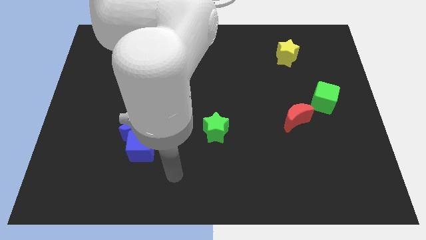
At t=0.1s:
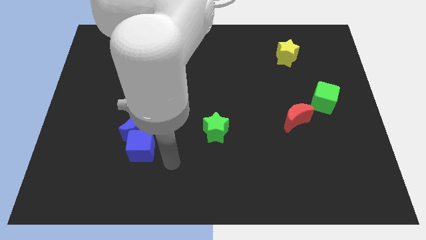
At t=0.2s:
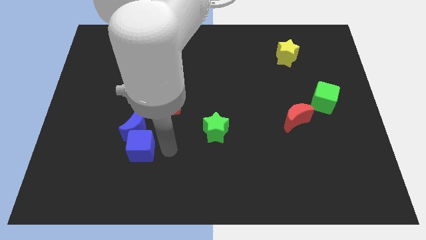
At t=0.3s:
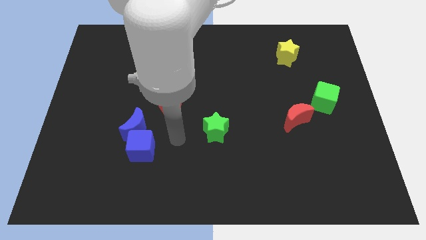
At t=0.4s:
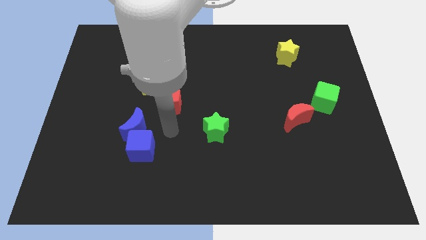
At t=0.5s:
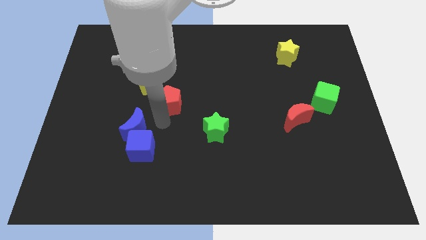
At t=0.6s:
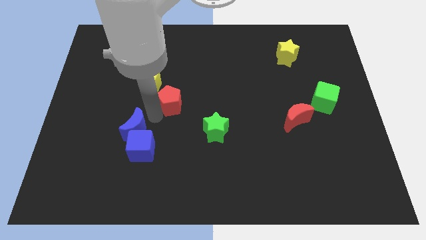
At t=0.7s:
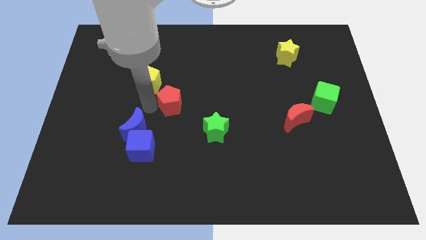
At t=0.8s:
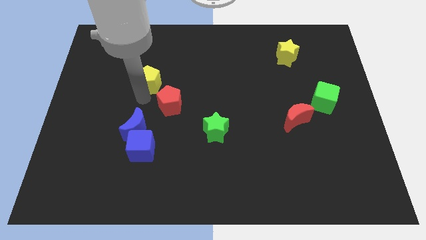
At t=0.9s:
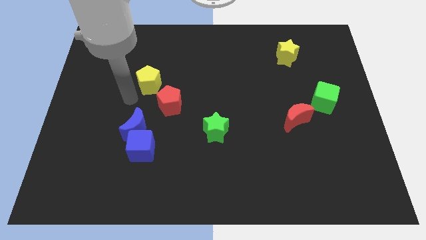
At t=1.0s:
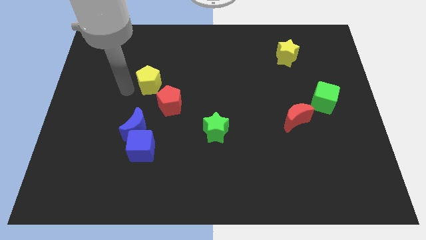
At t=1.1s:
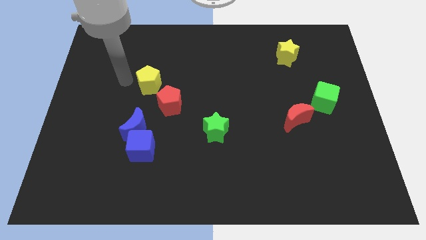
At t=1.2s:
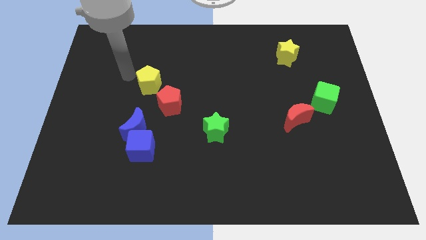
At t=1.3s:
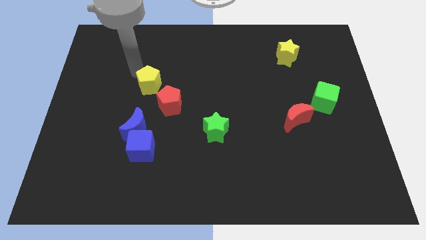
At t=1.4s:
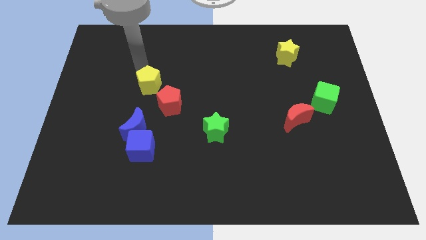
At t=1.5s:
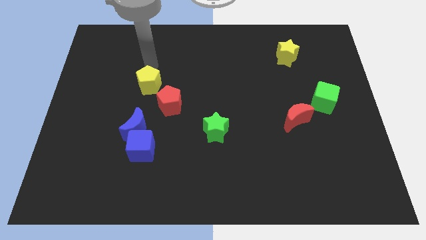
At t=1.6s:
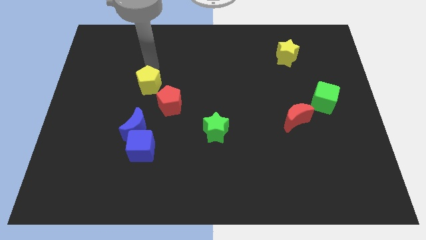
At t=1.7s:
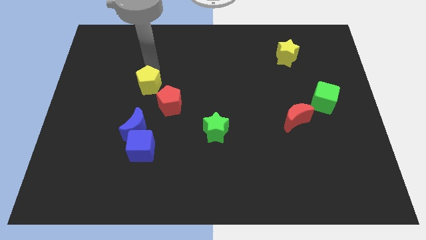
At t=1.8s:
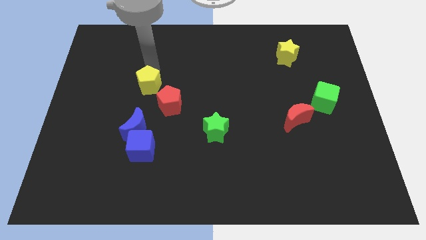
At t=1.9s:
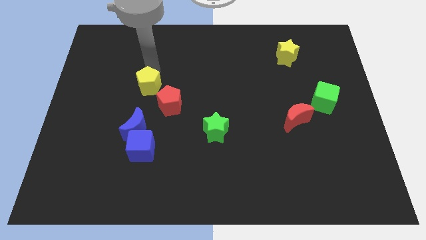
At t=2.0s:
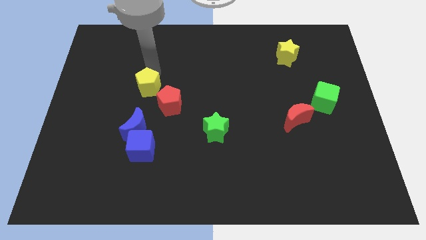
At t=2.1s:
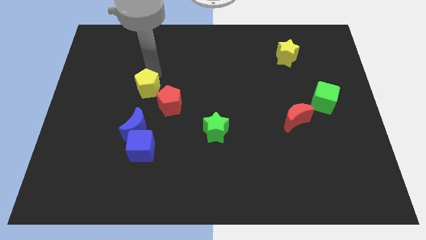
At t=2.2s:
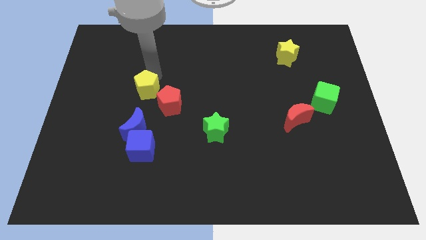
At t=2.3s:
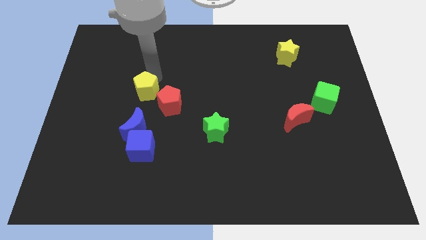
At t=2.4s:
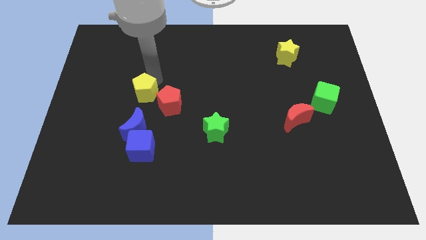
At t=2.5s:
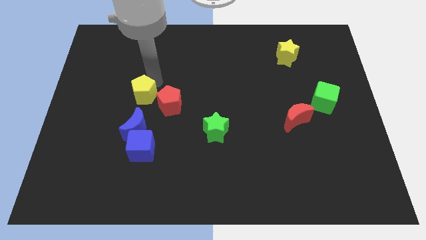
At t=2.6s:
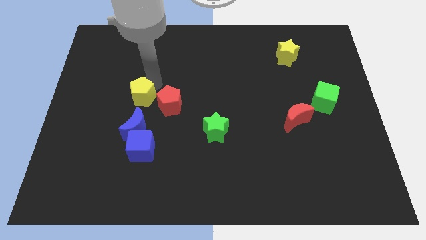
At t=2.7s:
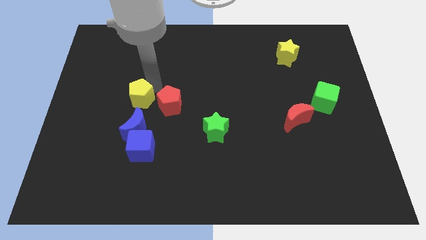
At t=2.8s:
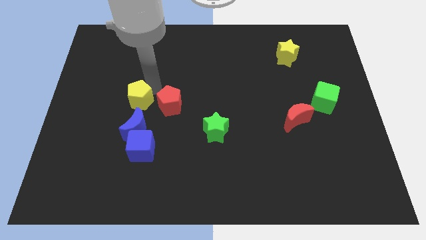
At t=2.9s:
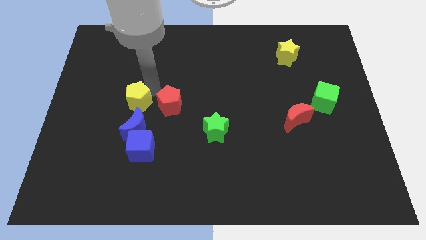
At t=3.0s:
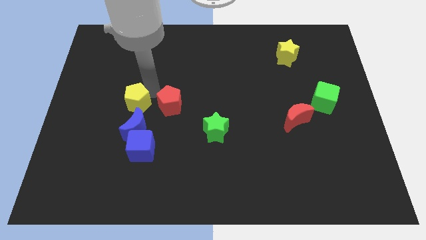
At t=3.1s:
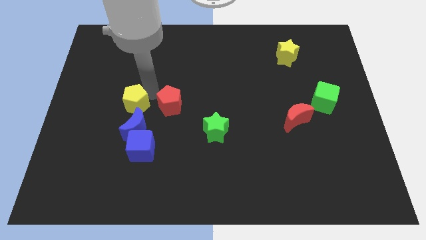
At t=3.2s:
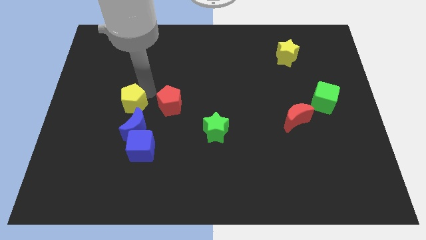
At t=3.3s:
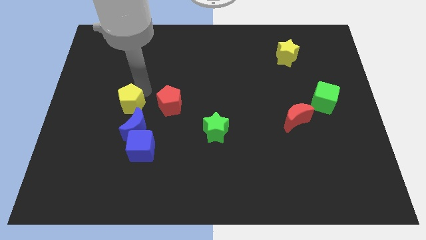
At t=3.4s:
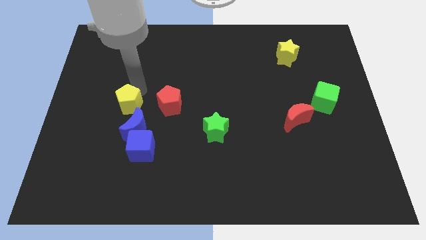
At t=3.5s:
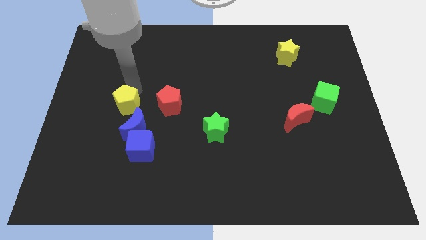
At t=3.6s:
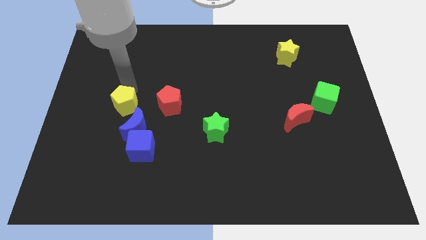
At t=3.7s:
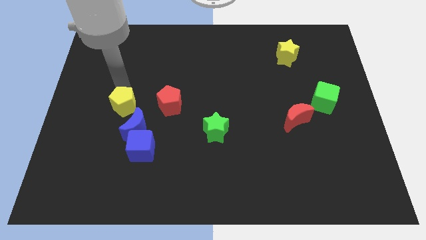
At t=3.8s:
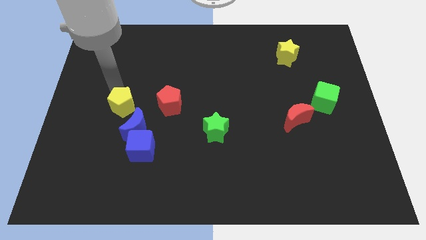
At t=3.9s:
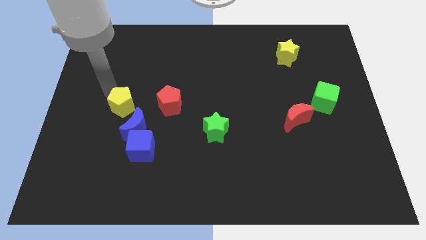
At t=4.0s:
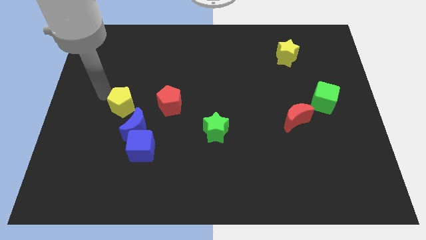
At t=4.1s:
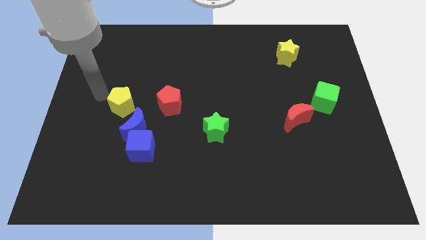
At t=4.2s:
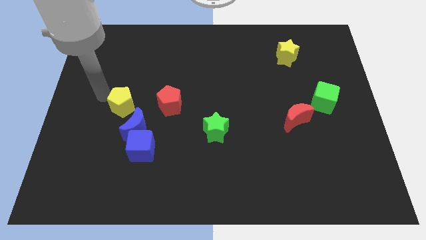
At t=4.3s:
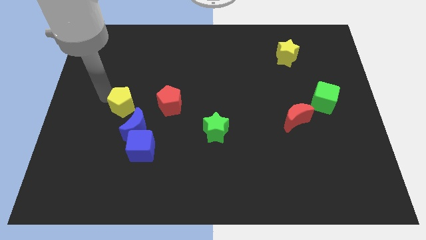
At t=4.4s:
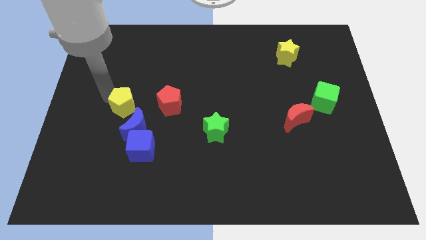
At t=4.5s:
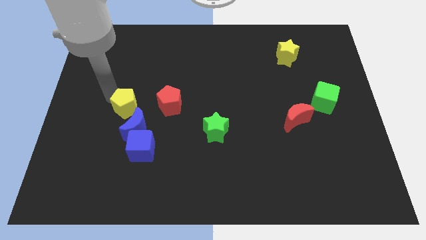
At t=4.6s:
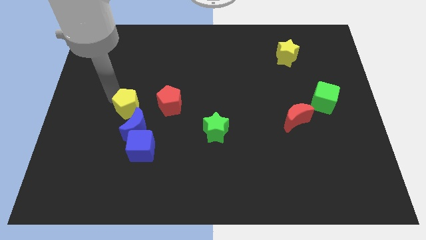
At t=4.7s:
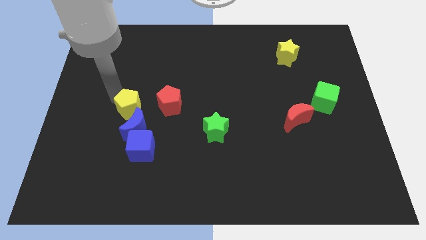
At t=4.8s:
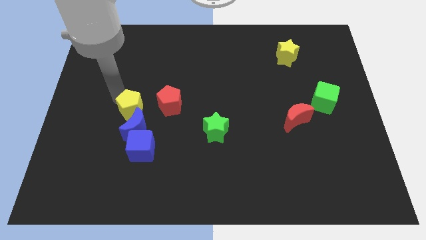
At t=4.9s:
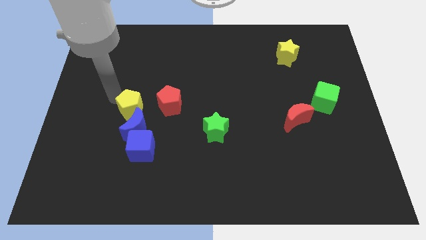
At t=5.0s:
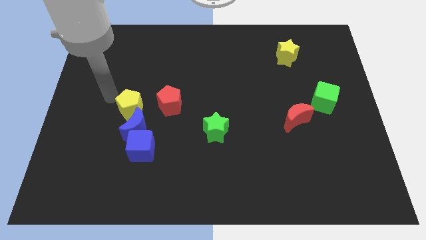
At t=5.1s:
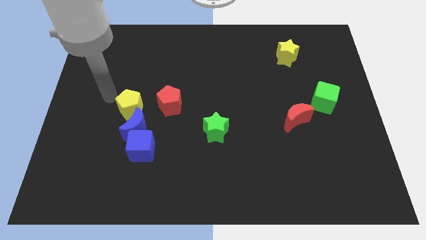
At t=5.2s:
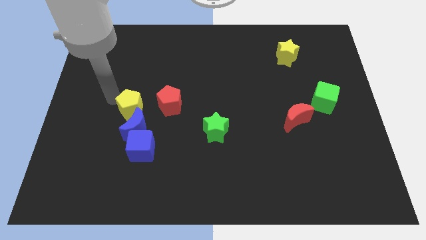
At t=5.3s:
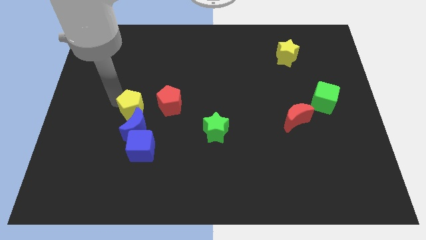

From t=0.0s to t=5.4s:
push the yellow pentagon close to the blue moon

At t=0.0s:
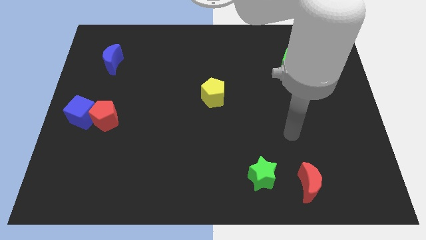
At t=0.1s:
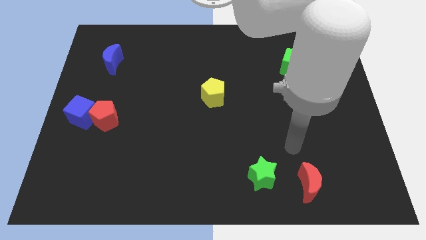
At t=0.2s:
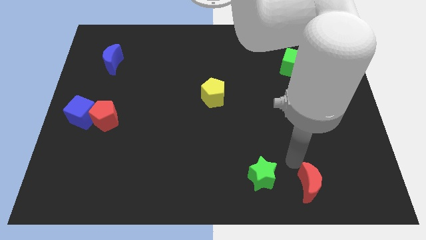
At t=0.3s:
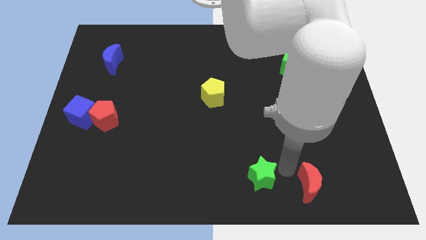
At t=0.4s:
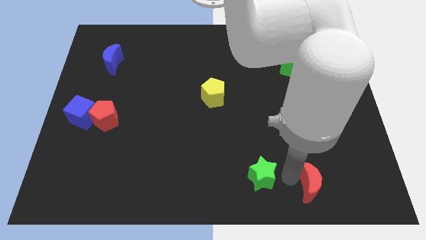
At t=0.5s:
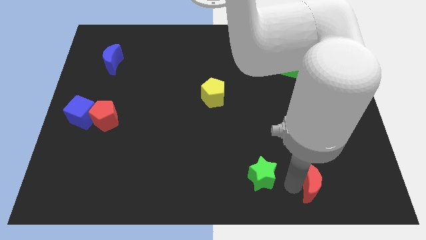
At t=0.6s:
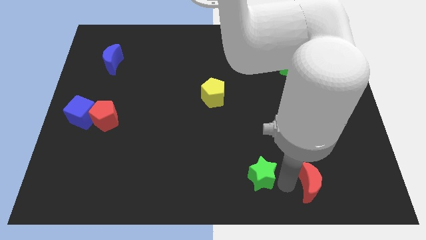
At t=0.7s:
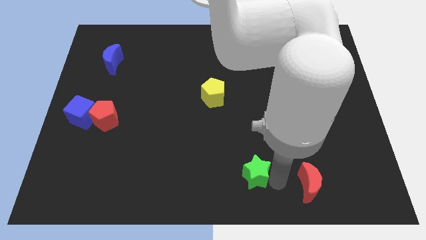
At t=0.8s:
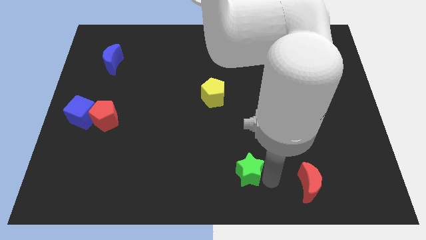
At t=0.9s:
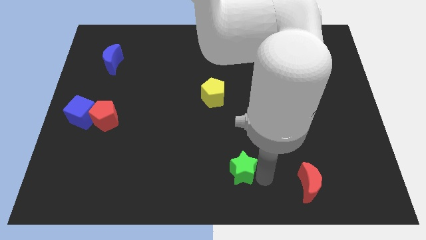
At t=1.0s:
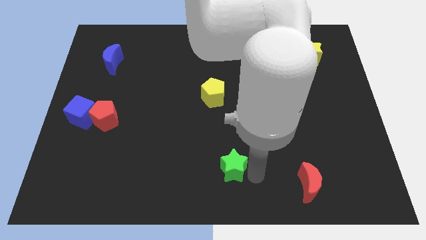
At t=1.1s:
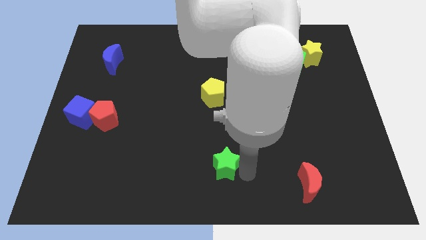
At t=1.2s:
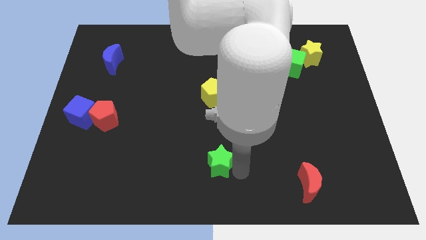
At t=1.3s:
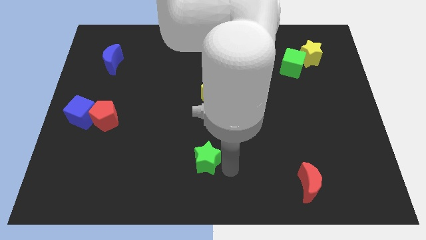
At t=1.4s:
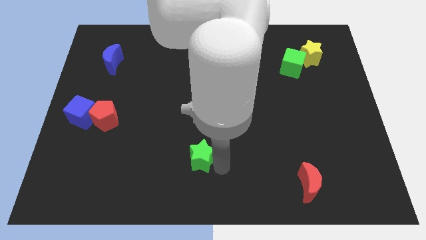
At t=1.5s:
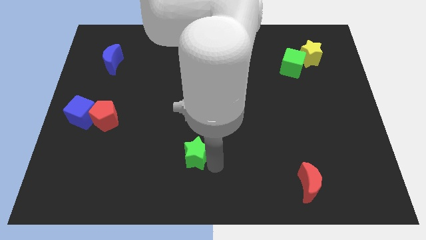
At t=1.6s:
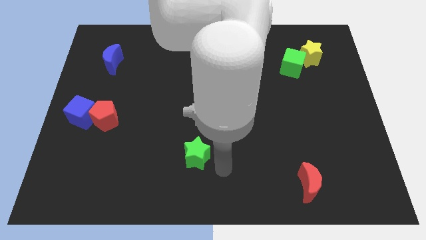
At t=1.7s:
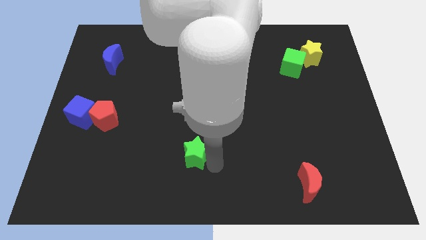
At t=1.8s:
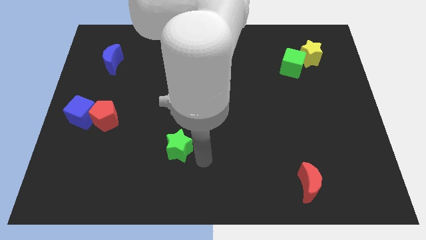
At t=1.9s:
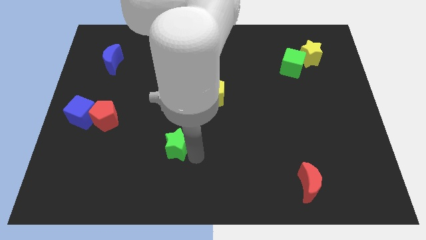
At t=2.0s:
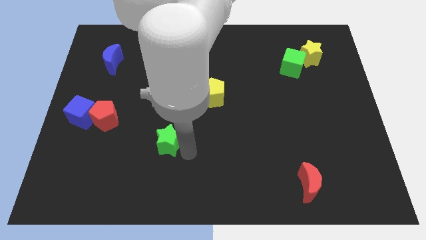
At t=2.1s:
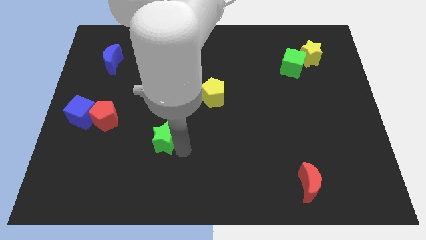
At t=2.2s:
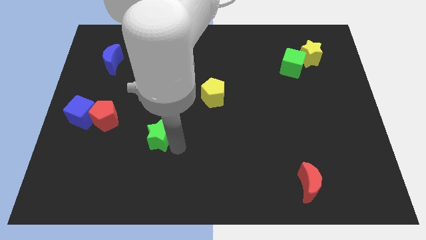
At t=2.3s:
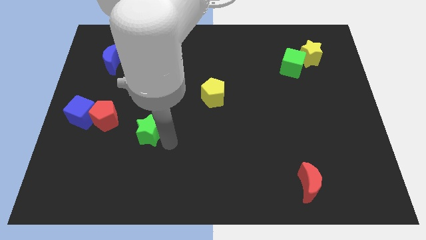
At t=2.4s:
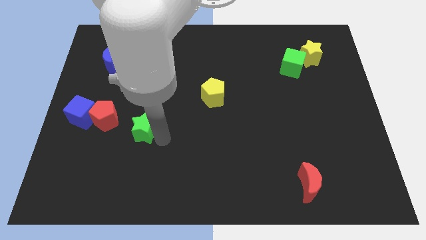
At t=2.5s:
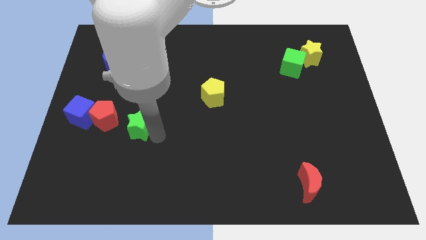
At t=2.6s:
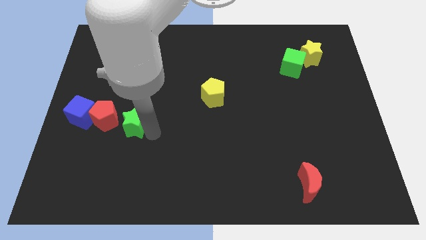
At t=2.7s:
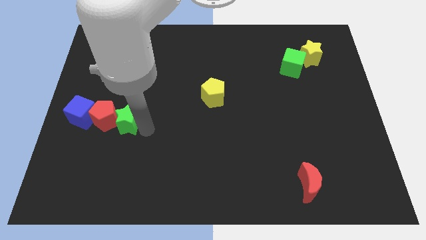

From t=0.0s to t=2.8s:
slide the green star to the red pentagon
